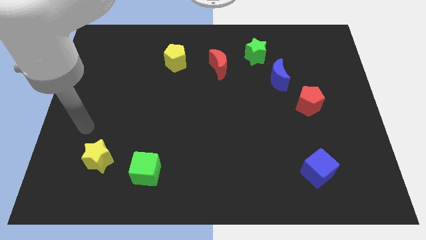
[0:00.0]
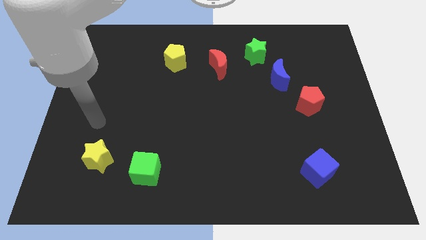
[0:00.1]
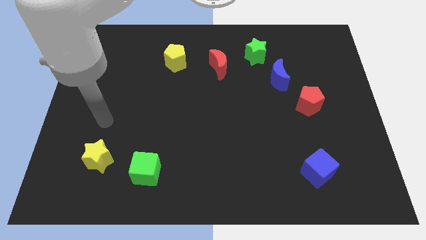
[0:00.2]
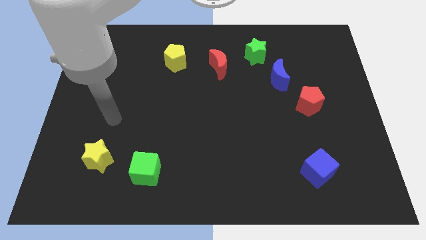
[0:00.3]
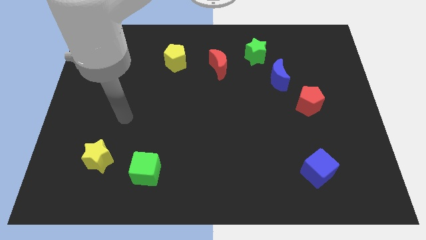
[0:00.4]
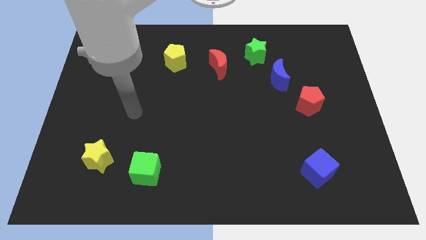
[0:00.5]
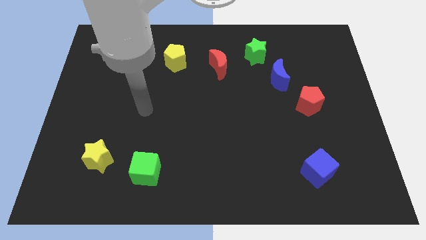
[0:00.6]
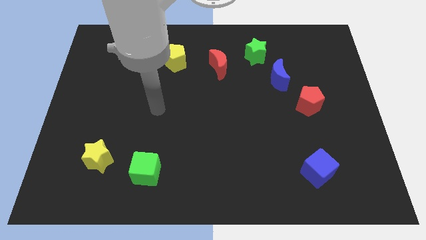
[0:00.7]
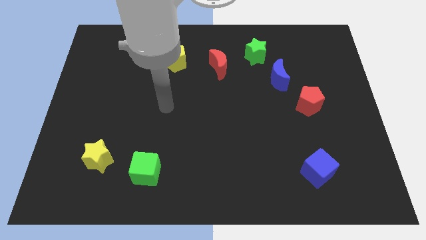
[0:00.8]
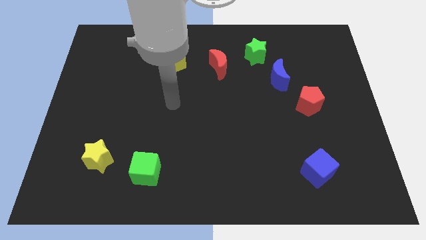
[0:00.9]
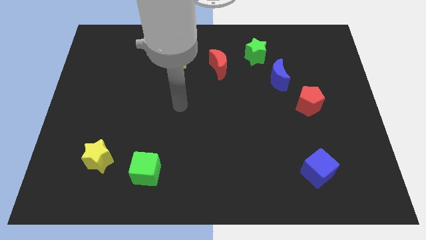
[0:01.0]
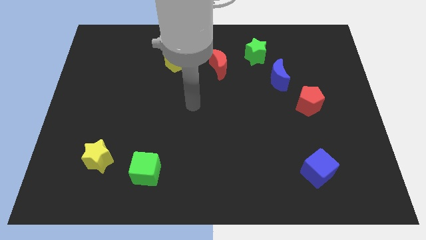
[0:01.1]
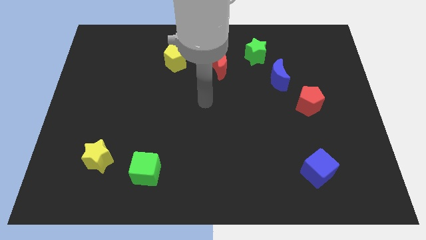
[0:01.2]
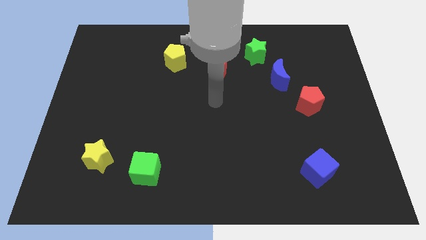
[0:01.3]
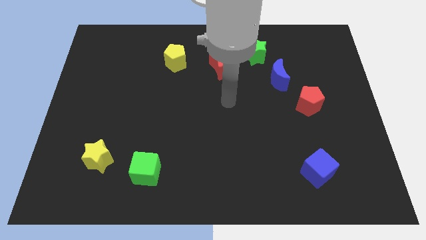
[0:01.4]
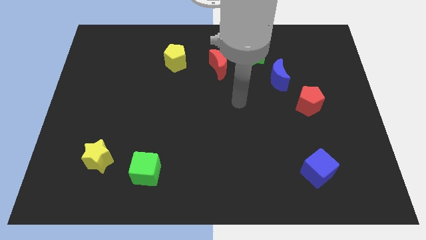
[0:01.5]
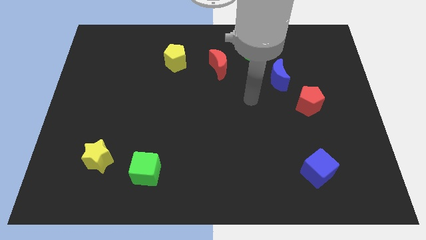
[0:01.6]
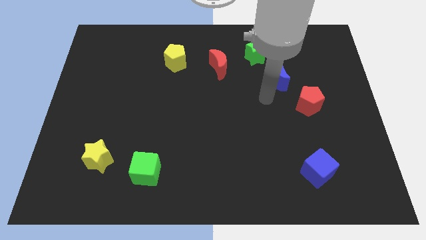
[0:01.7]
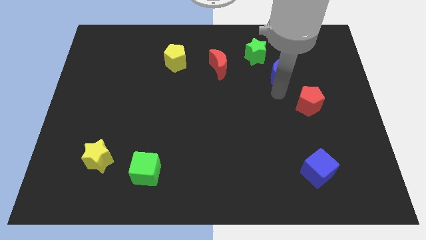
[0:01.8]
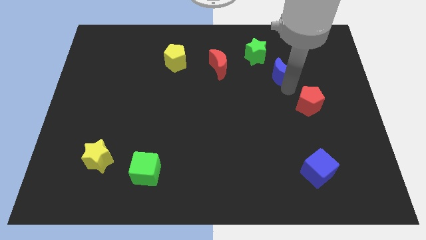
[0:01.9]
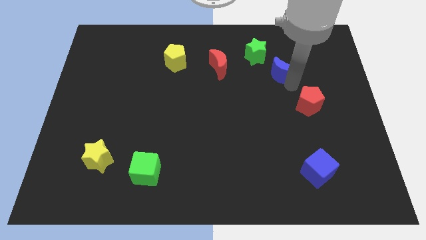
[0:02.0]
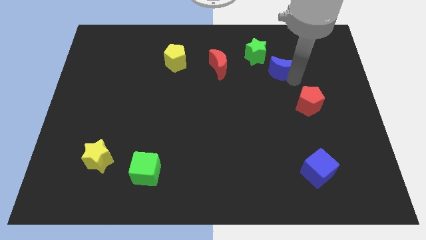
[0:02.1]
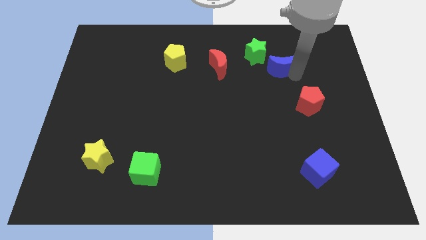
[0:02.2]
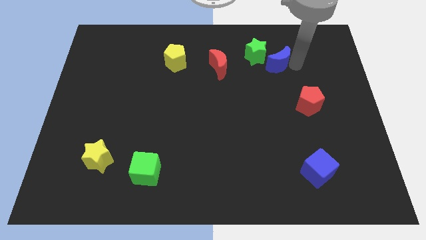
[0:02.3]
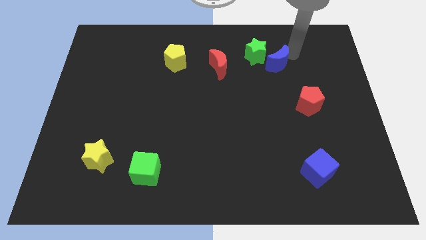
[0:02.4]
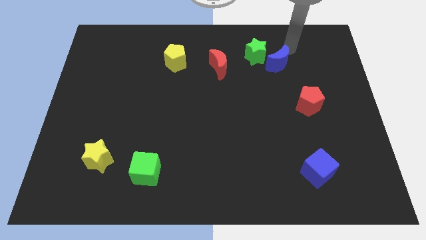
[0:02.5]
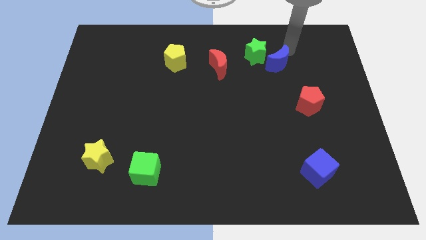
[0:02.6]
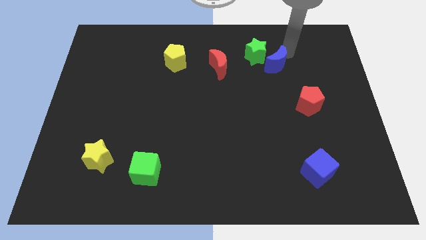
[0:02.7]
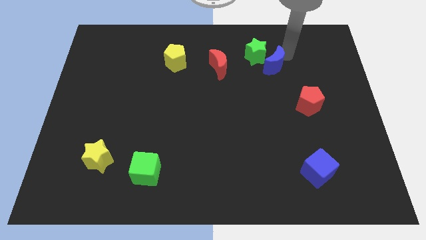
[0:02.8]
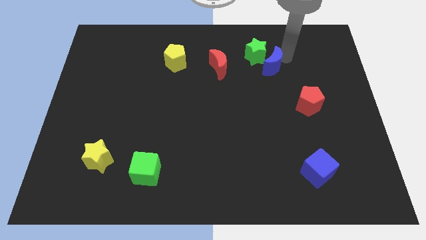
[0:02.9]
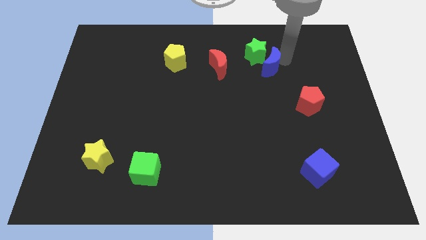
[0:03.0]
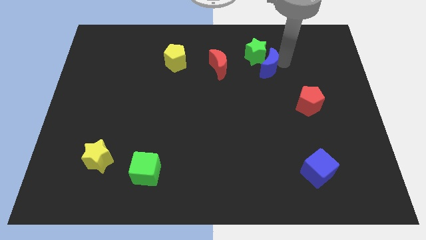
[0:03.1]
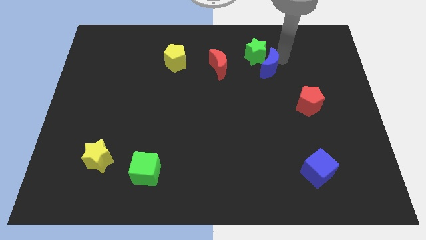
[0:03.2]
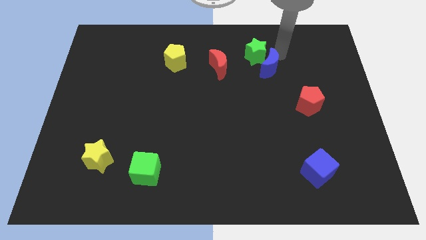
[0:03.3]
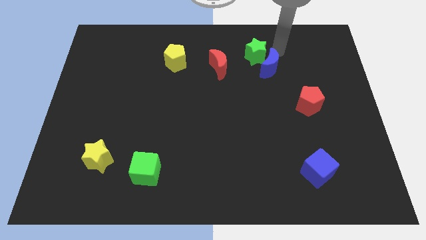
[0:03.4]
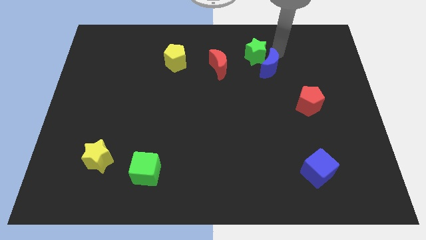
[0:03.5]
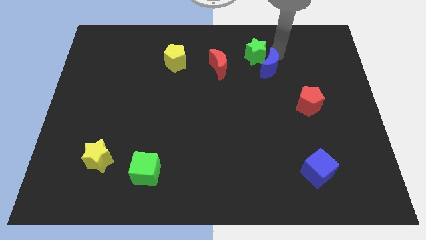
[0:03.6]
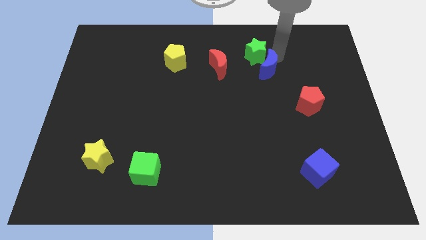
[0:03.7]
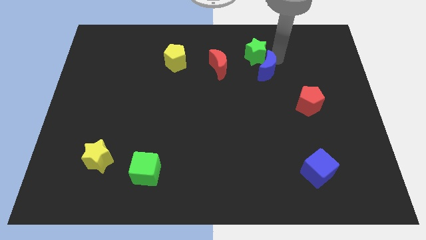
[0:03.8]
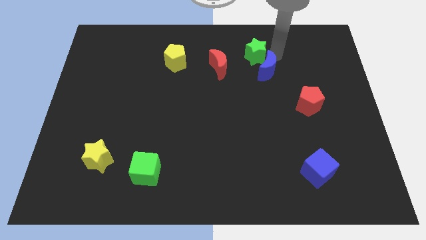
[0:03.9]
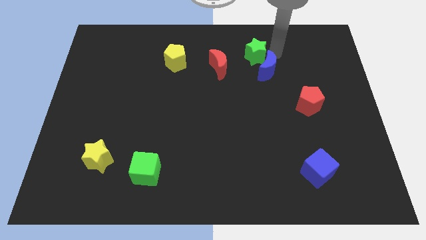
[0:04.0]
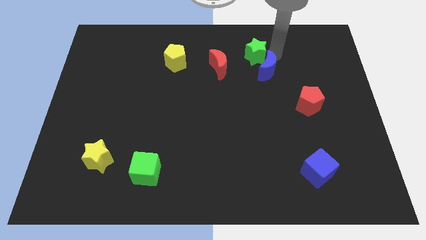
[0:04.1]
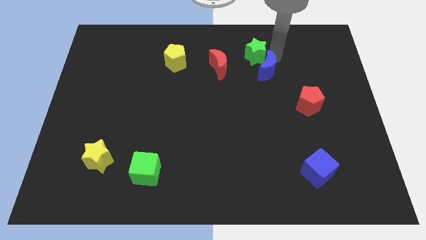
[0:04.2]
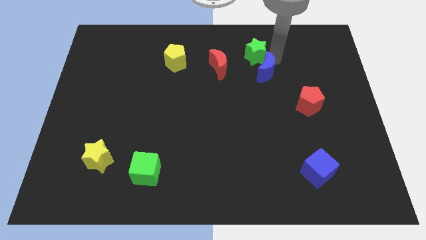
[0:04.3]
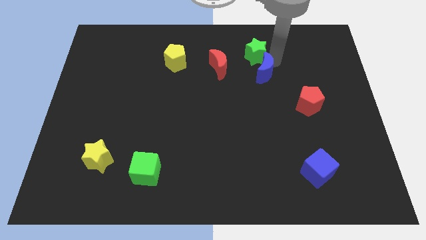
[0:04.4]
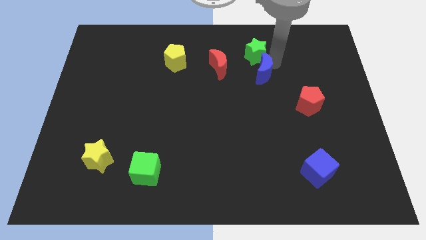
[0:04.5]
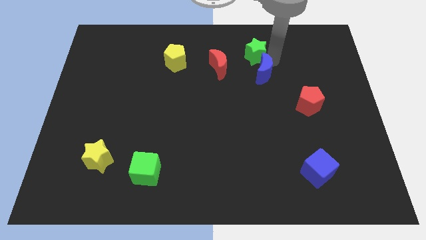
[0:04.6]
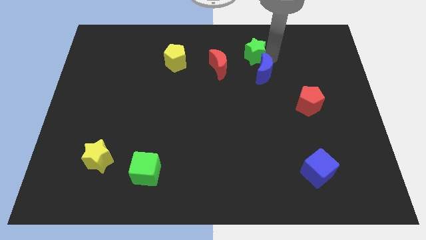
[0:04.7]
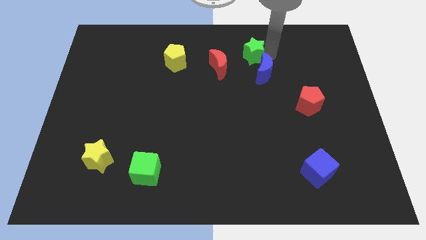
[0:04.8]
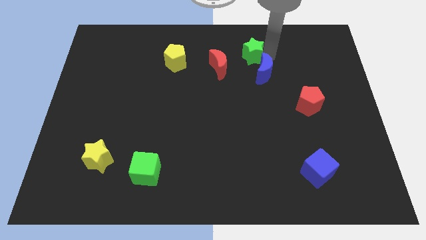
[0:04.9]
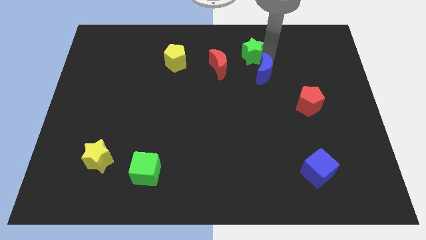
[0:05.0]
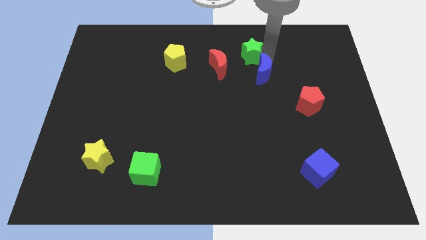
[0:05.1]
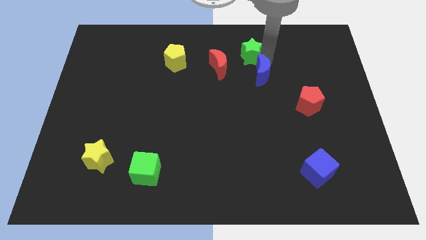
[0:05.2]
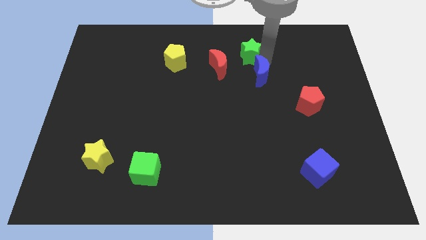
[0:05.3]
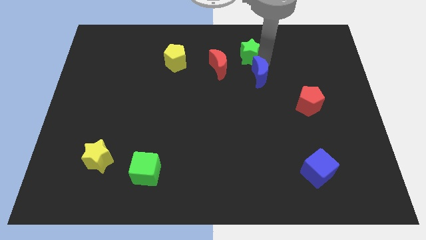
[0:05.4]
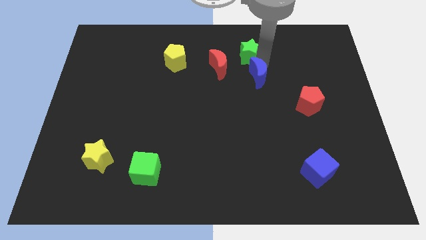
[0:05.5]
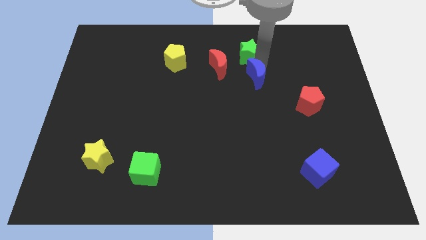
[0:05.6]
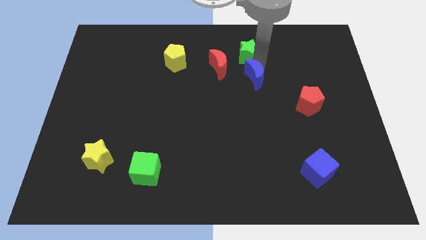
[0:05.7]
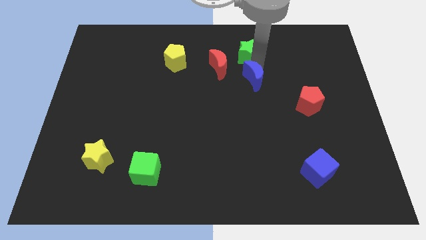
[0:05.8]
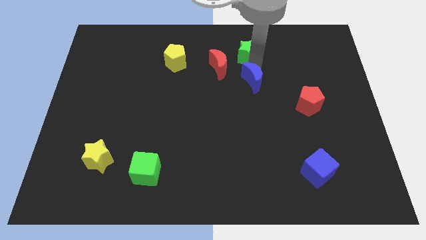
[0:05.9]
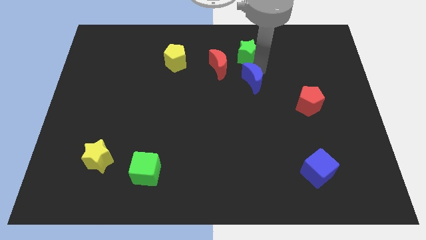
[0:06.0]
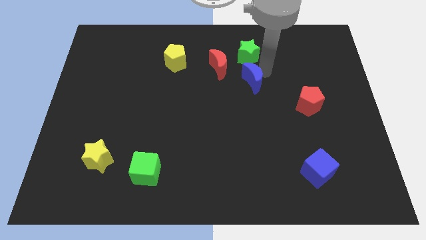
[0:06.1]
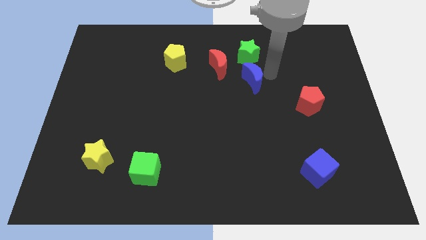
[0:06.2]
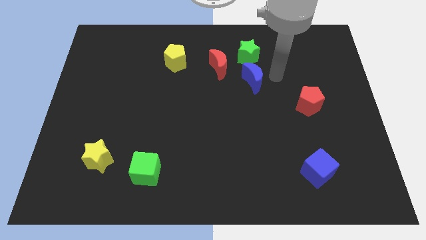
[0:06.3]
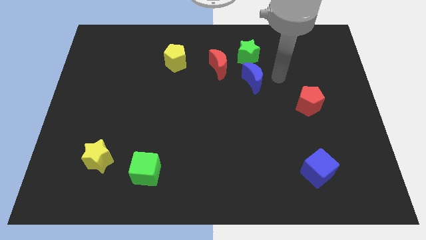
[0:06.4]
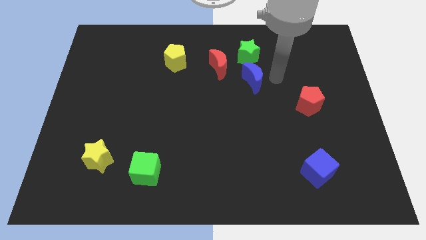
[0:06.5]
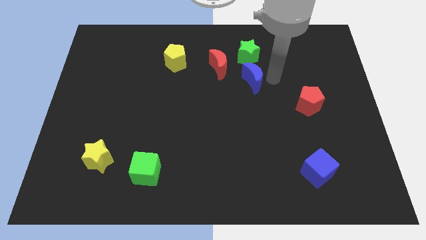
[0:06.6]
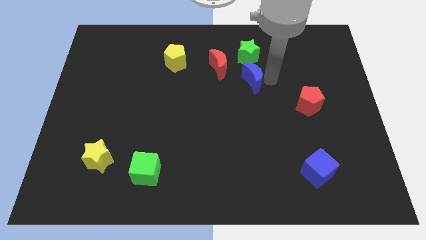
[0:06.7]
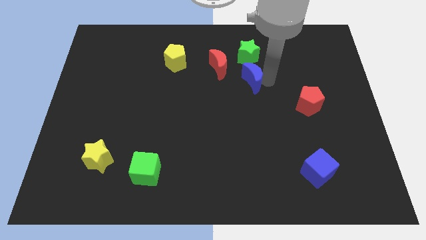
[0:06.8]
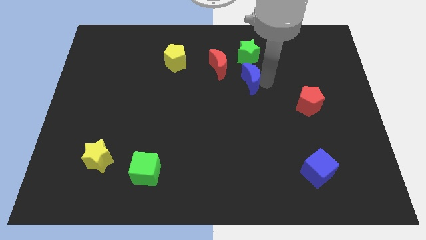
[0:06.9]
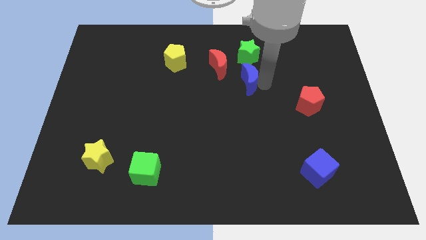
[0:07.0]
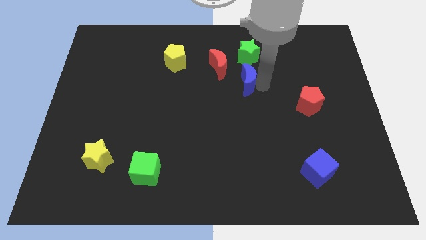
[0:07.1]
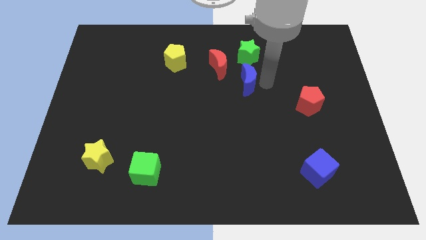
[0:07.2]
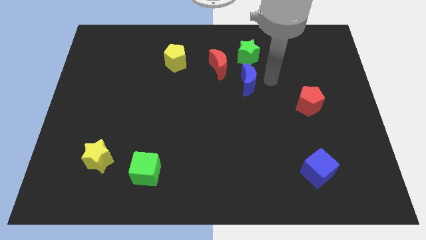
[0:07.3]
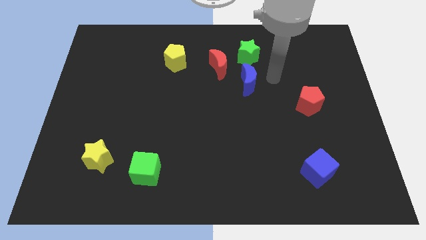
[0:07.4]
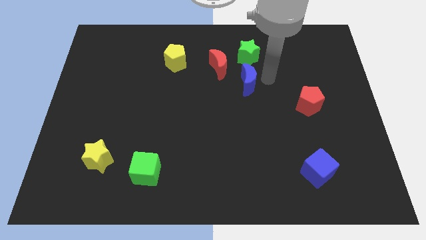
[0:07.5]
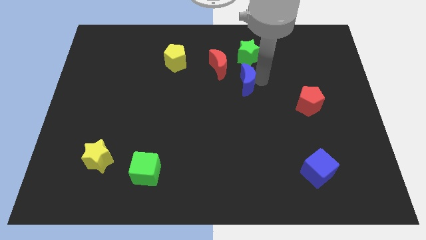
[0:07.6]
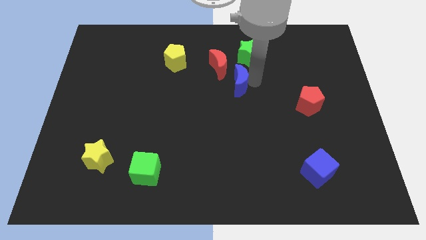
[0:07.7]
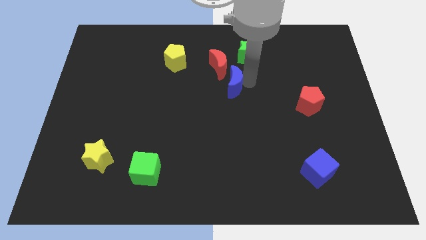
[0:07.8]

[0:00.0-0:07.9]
move the blue moon away from the green star and red pentagon

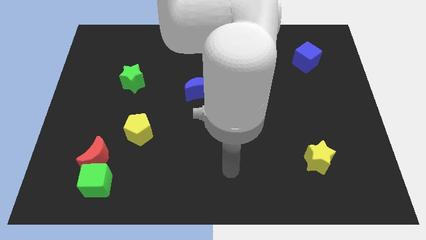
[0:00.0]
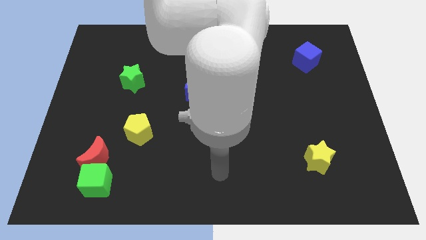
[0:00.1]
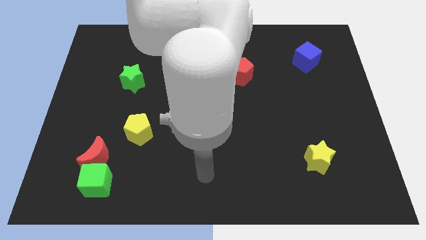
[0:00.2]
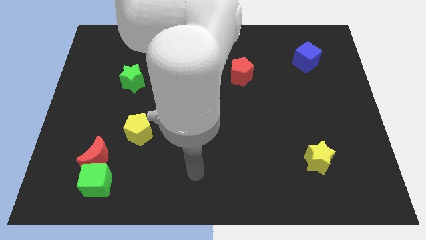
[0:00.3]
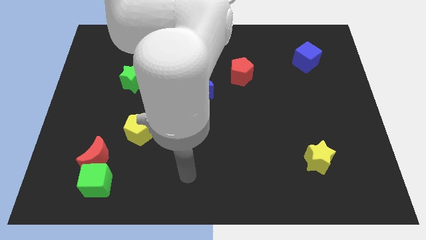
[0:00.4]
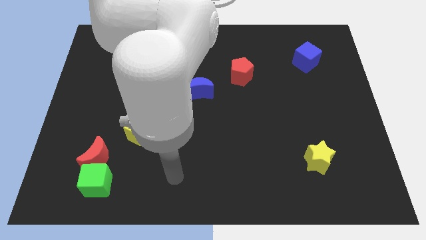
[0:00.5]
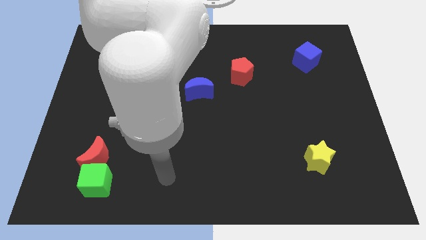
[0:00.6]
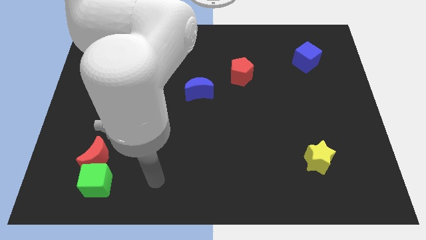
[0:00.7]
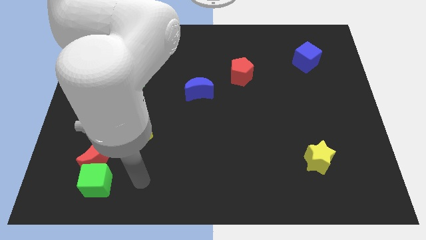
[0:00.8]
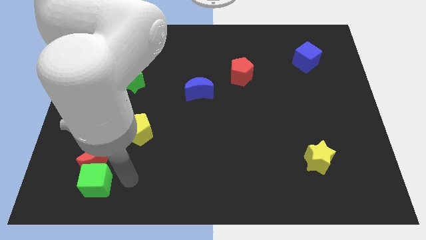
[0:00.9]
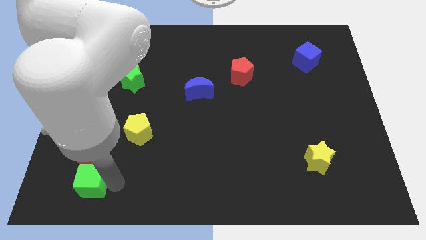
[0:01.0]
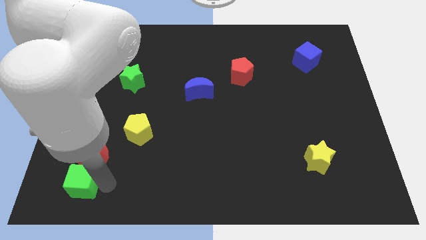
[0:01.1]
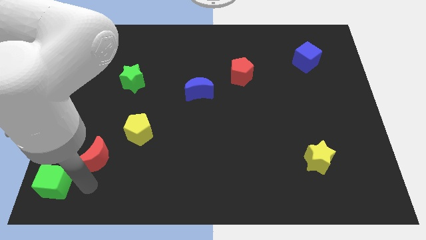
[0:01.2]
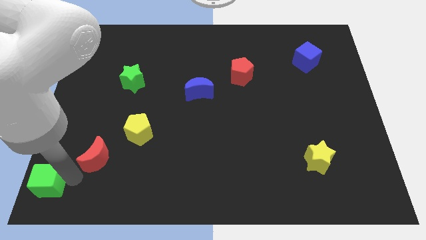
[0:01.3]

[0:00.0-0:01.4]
separate the red moon from the green cube
